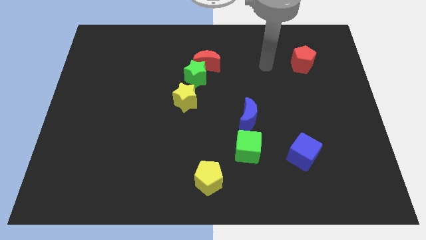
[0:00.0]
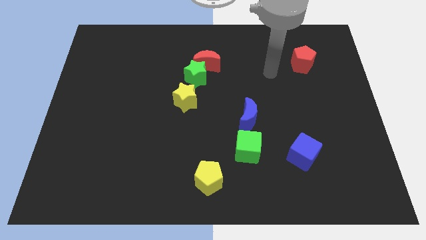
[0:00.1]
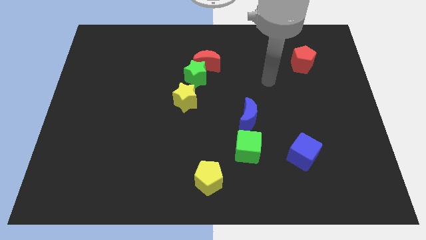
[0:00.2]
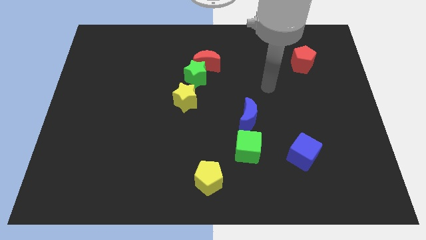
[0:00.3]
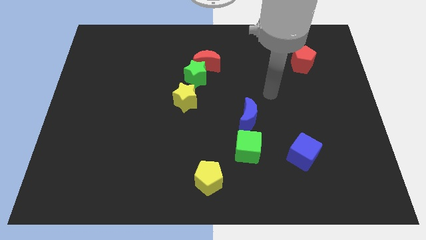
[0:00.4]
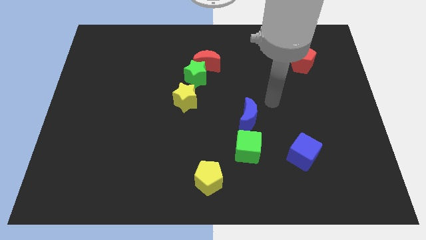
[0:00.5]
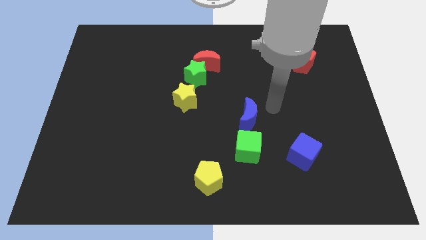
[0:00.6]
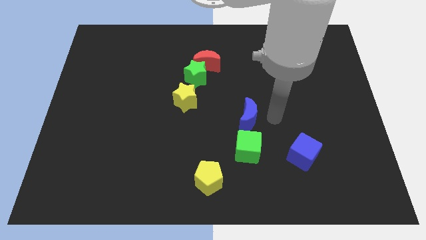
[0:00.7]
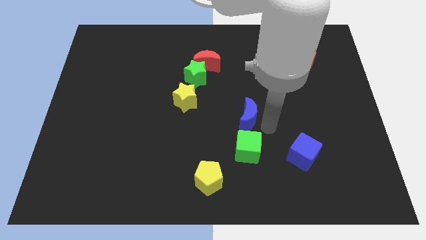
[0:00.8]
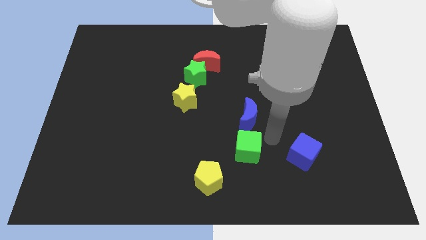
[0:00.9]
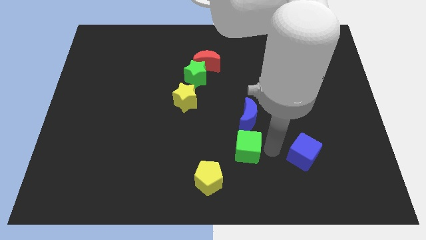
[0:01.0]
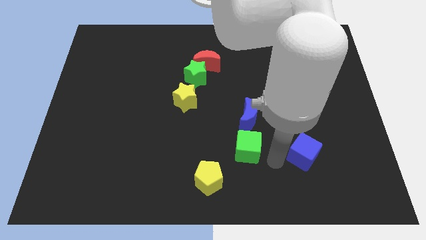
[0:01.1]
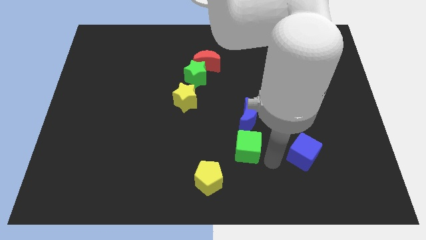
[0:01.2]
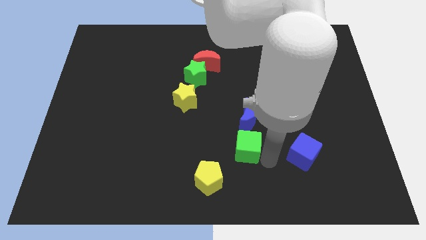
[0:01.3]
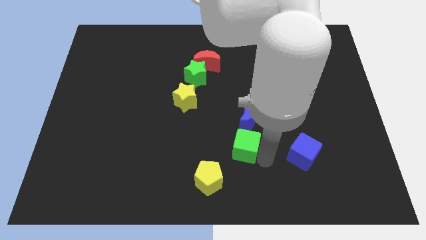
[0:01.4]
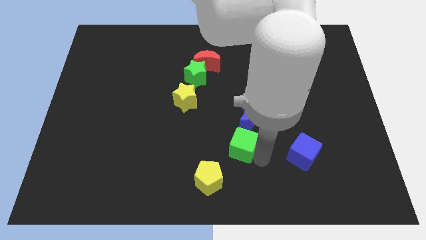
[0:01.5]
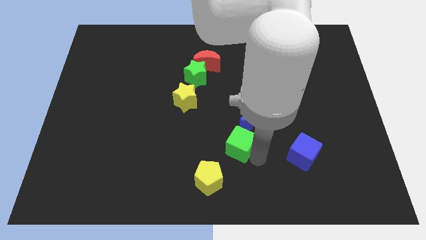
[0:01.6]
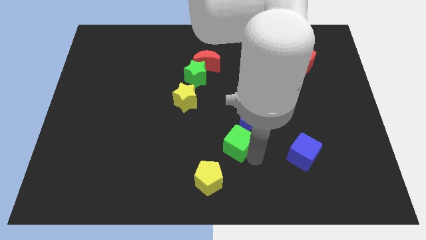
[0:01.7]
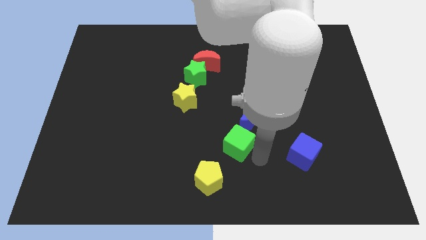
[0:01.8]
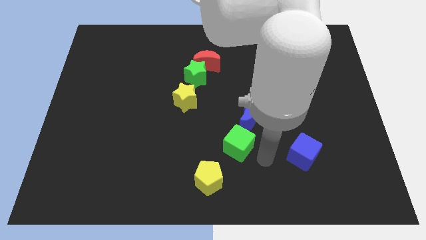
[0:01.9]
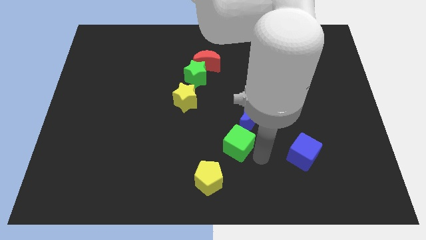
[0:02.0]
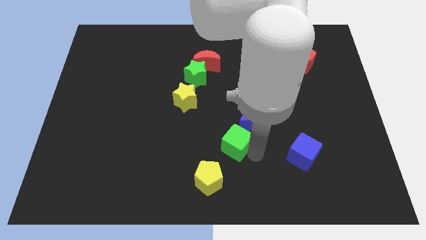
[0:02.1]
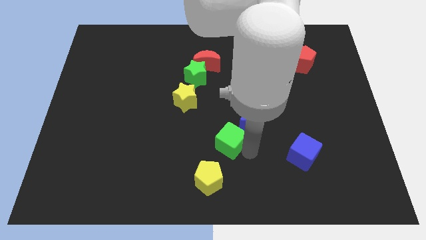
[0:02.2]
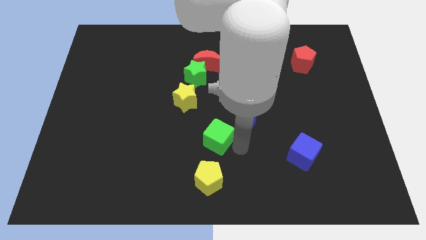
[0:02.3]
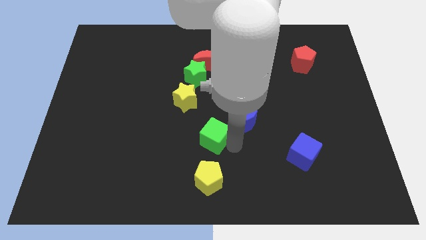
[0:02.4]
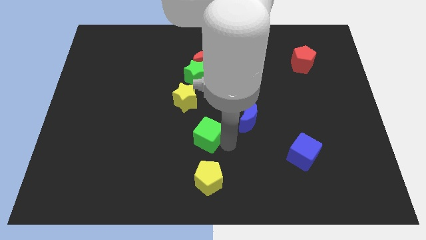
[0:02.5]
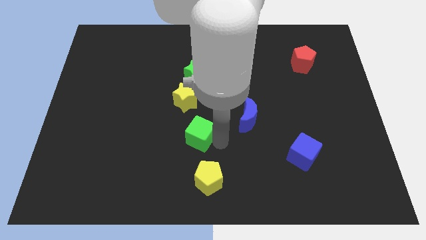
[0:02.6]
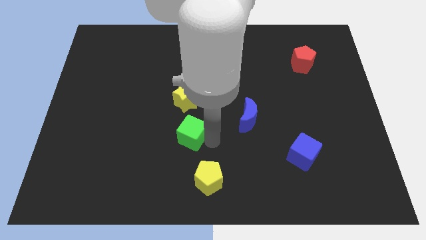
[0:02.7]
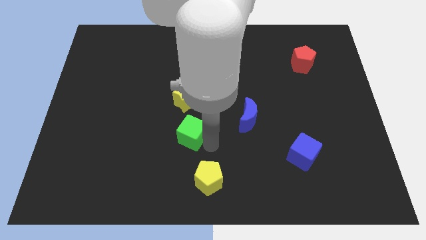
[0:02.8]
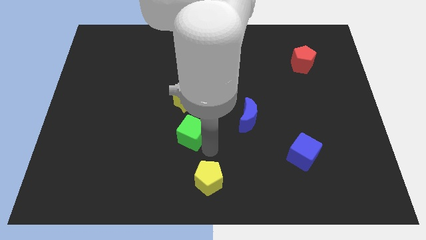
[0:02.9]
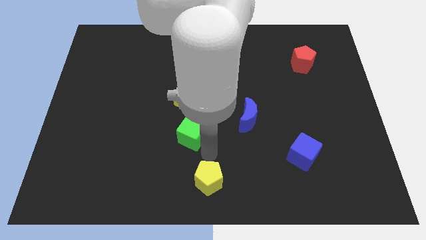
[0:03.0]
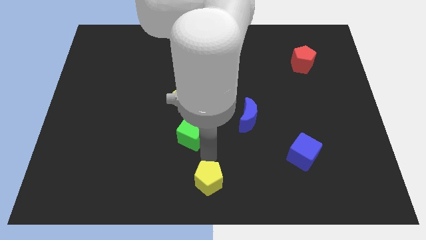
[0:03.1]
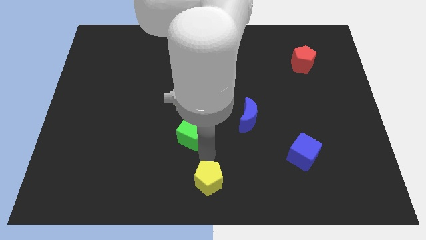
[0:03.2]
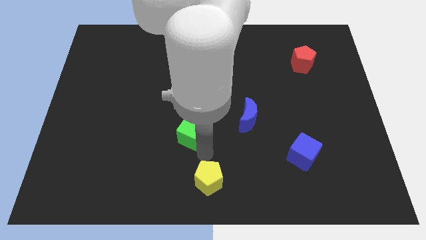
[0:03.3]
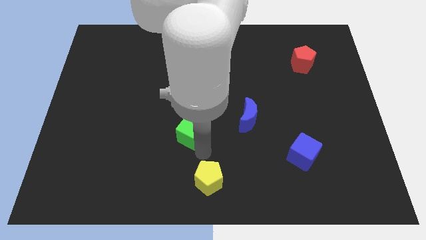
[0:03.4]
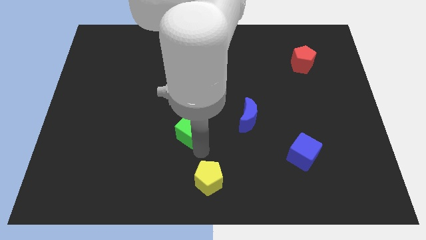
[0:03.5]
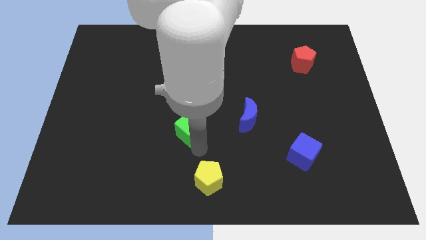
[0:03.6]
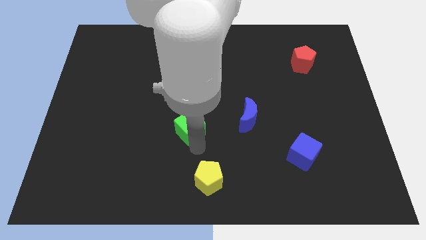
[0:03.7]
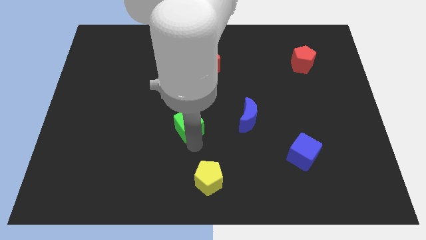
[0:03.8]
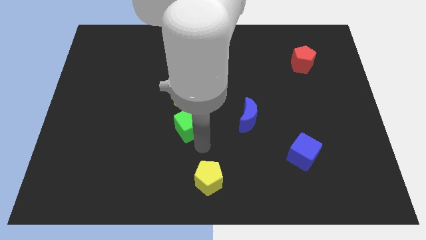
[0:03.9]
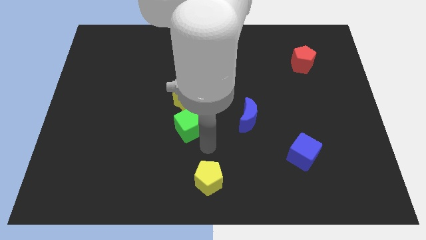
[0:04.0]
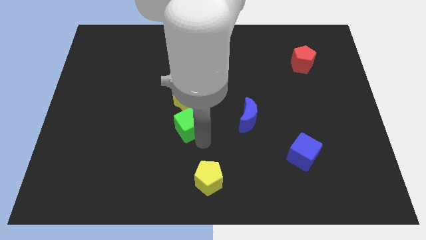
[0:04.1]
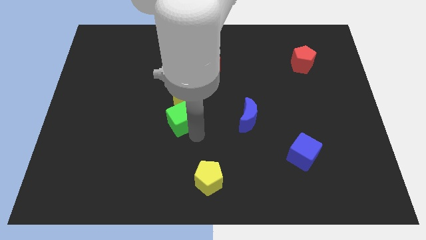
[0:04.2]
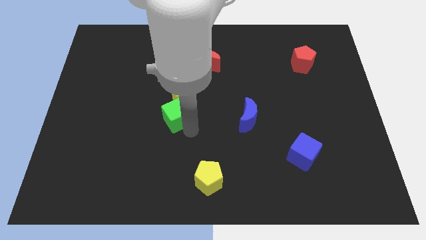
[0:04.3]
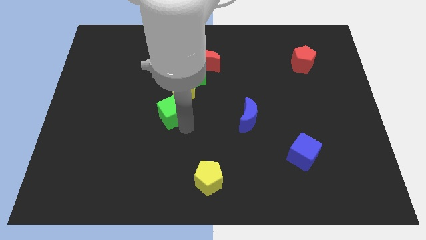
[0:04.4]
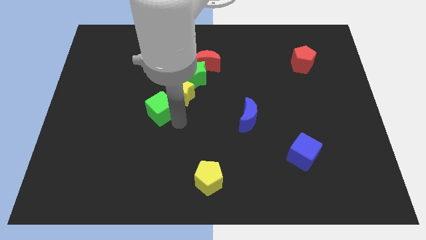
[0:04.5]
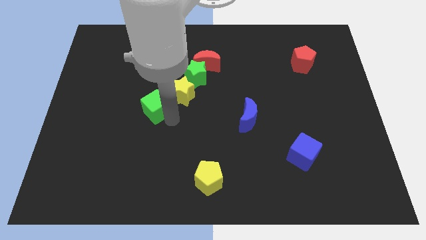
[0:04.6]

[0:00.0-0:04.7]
slide the green cube upwards and to the left diagonally

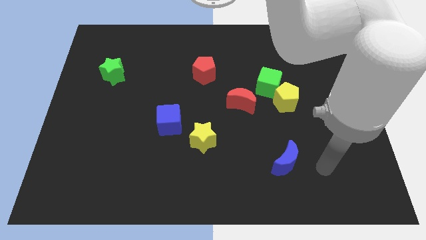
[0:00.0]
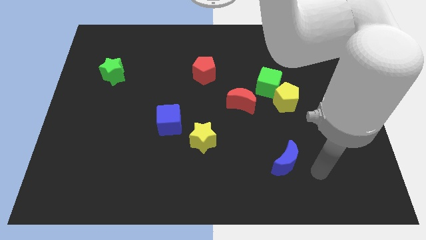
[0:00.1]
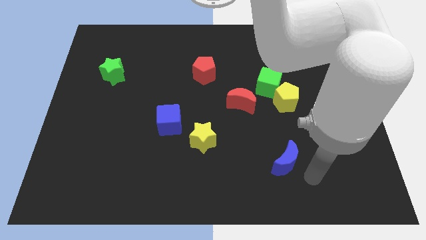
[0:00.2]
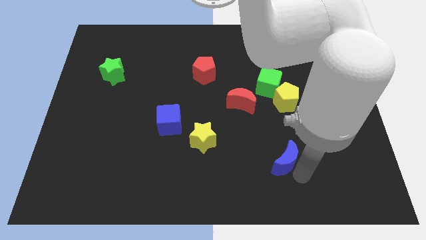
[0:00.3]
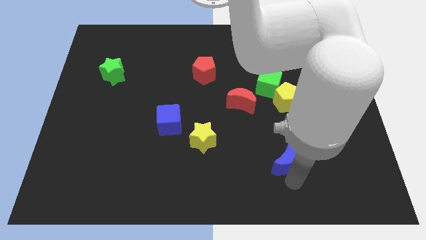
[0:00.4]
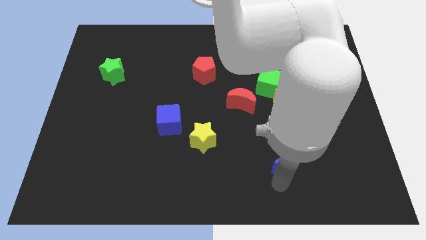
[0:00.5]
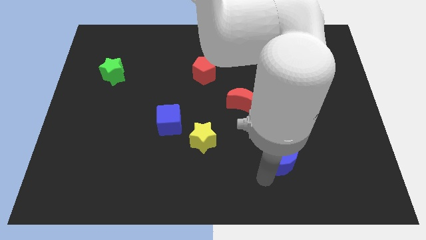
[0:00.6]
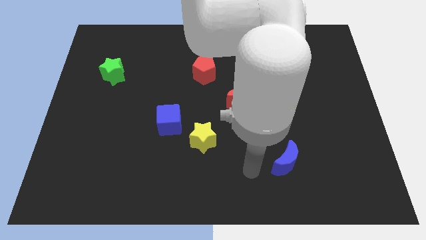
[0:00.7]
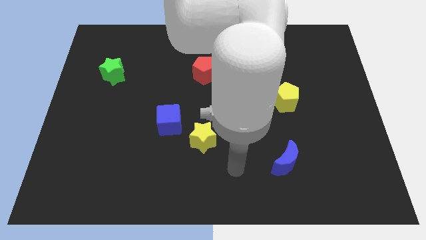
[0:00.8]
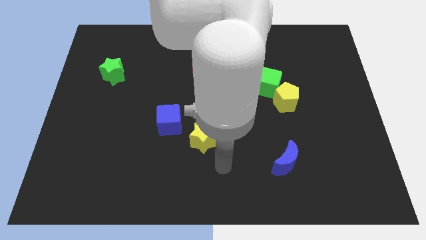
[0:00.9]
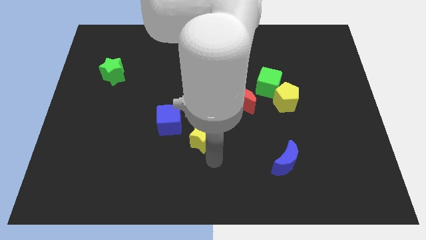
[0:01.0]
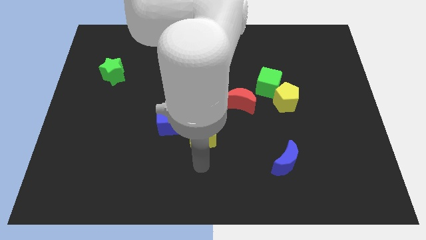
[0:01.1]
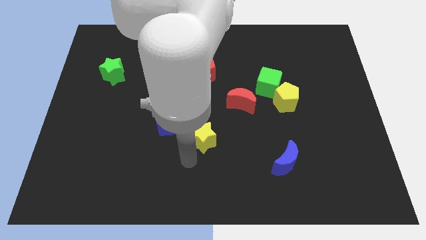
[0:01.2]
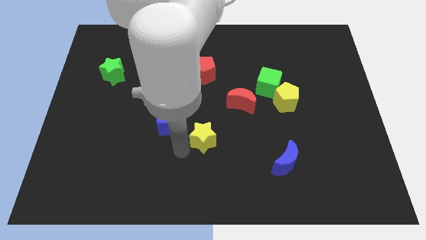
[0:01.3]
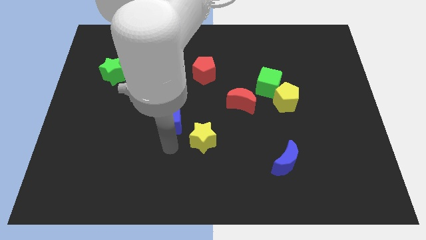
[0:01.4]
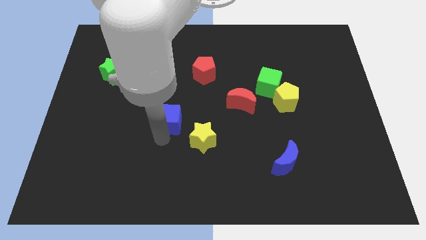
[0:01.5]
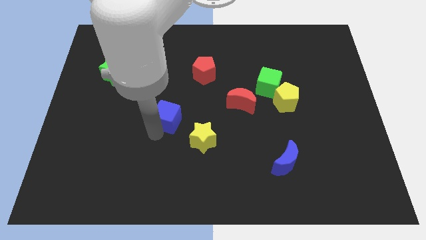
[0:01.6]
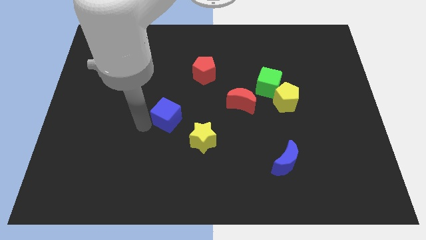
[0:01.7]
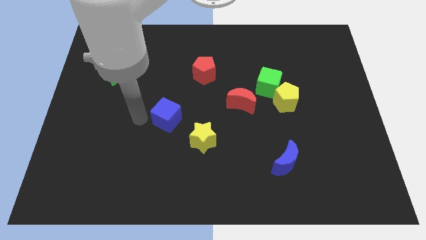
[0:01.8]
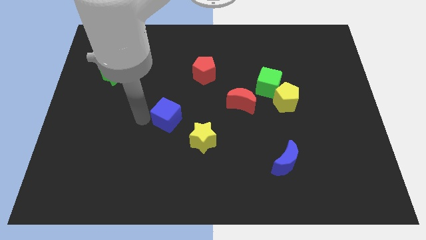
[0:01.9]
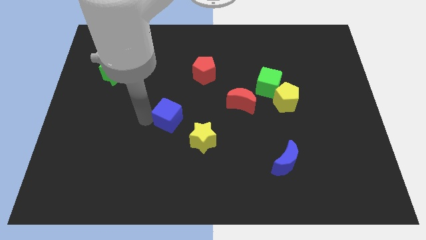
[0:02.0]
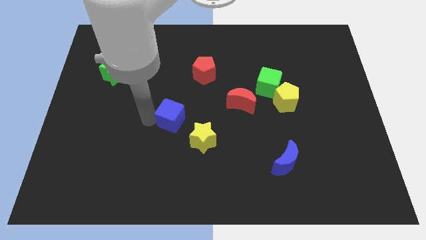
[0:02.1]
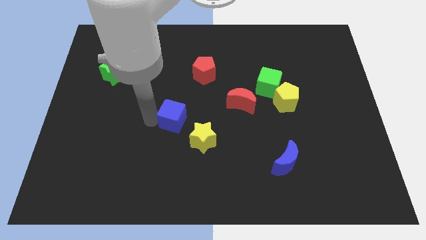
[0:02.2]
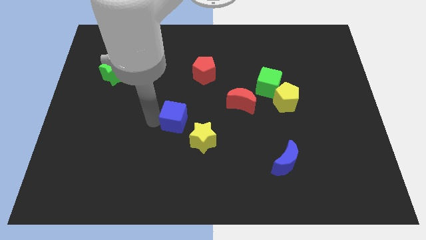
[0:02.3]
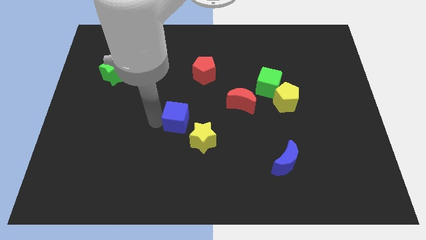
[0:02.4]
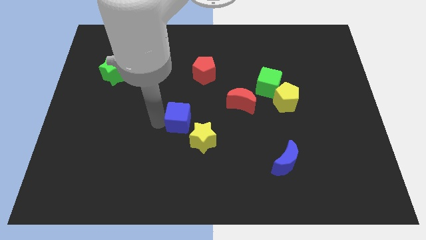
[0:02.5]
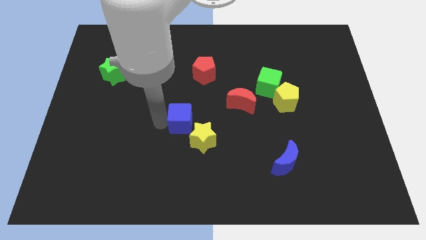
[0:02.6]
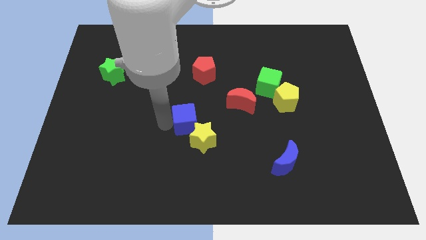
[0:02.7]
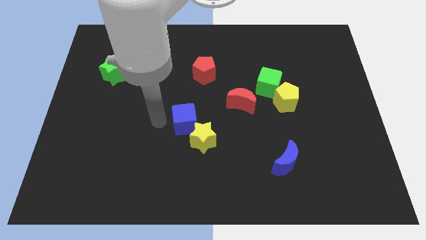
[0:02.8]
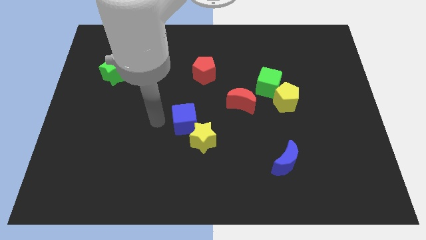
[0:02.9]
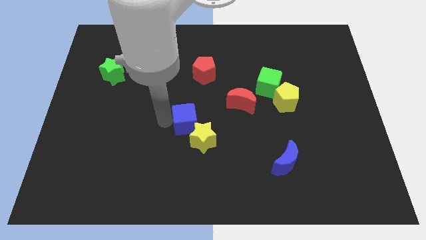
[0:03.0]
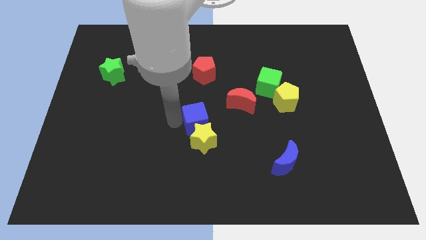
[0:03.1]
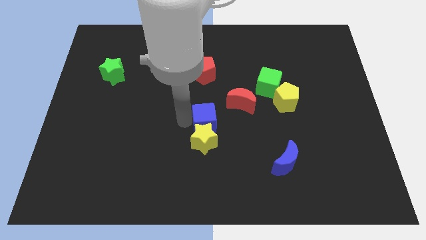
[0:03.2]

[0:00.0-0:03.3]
slide the blue cube right a little

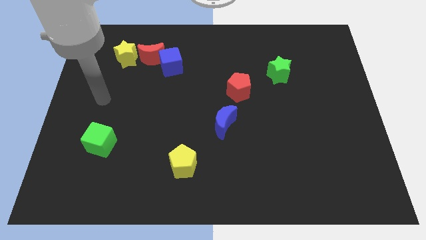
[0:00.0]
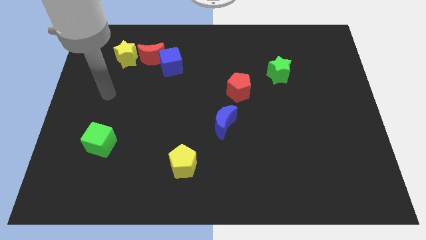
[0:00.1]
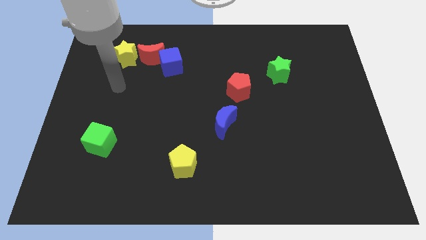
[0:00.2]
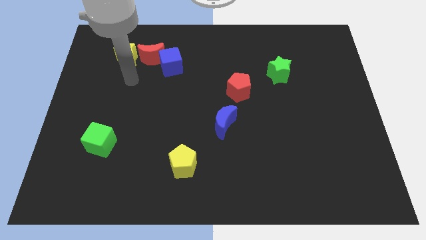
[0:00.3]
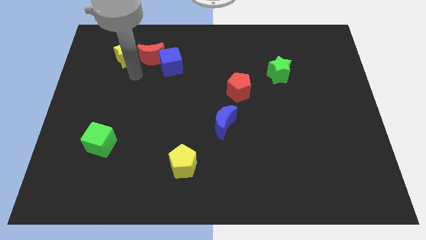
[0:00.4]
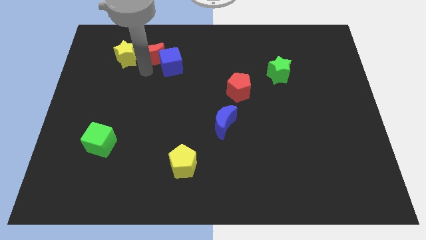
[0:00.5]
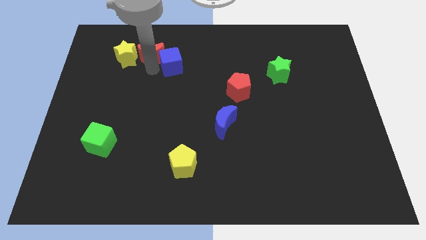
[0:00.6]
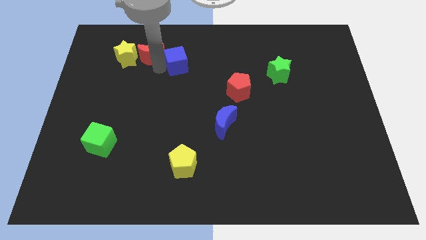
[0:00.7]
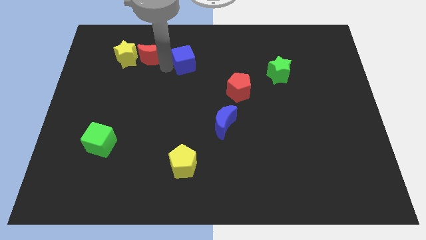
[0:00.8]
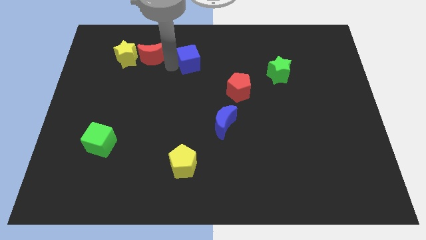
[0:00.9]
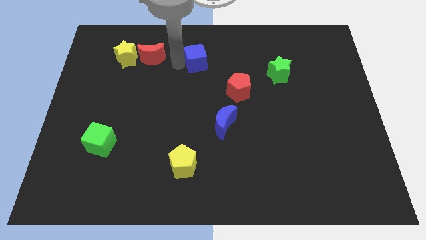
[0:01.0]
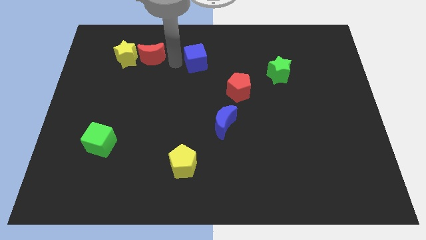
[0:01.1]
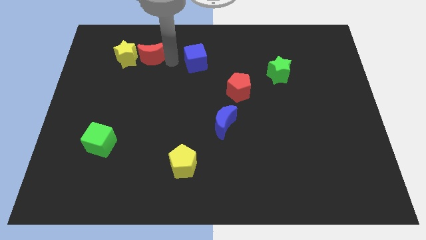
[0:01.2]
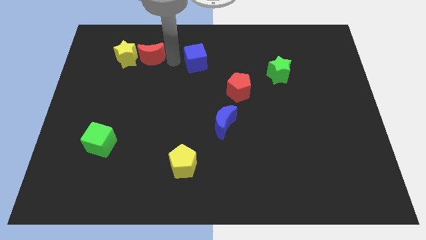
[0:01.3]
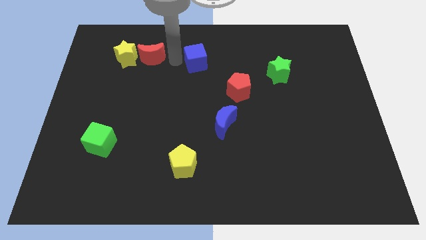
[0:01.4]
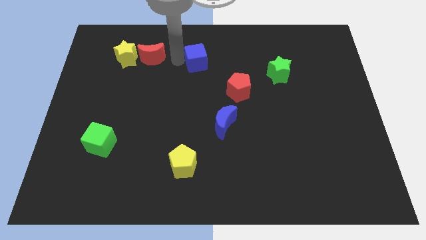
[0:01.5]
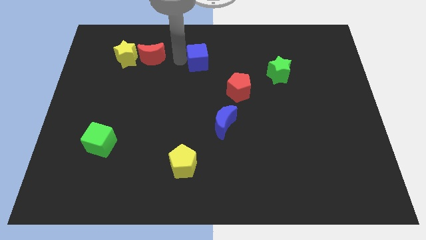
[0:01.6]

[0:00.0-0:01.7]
move the blue cube a bit to the right
